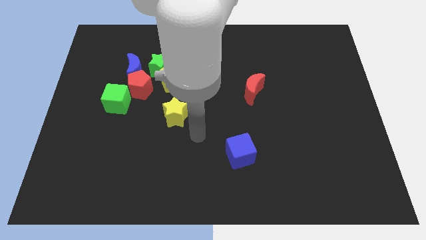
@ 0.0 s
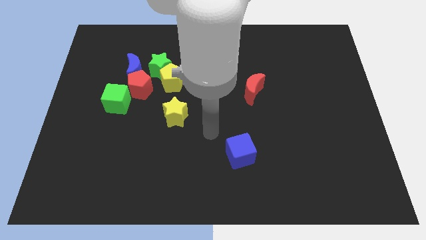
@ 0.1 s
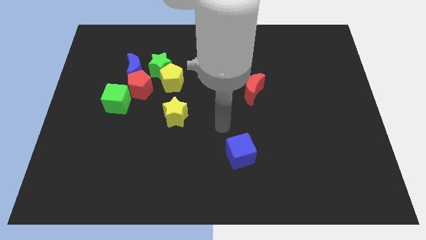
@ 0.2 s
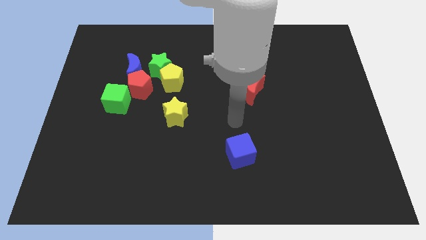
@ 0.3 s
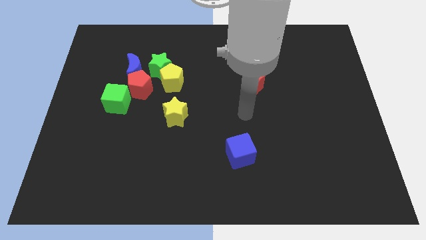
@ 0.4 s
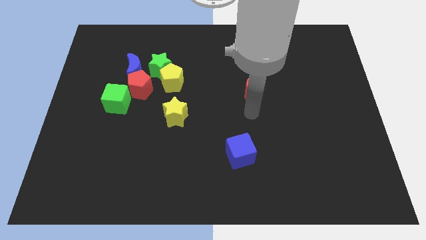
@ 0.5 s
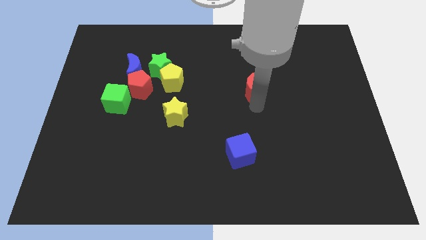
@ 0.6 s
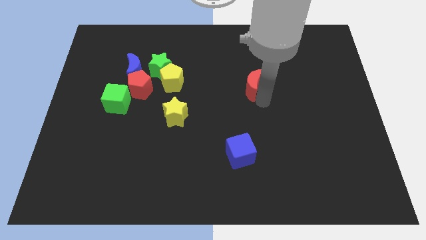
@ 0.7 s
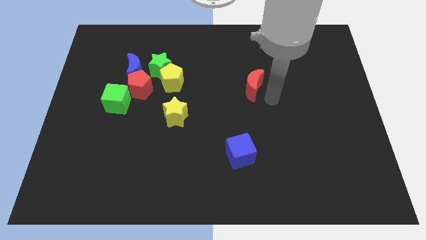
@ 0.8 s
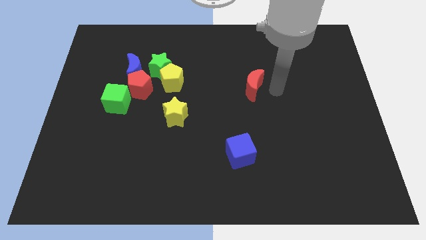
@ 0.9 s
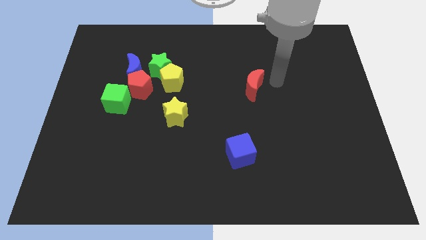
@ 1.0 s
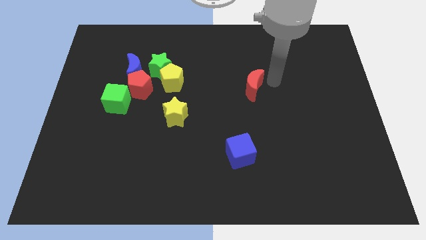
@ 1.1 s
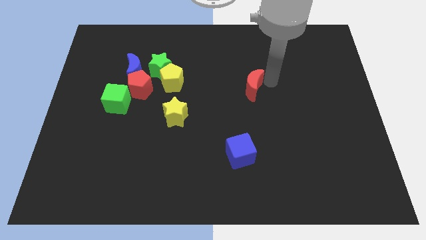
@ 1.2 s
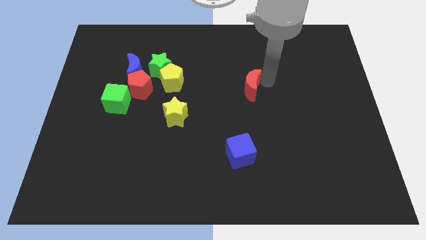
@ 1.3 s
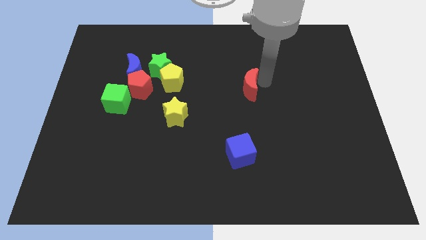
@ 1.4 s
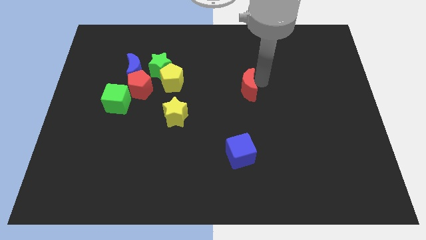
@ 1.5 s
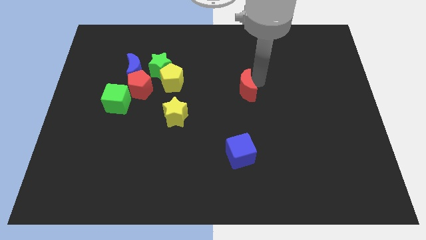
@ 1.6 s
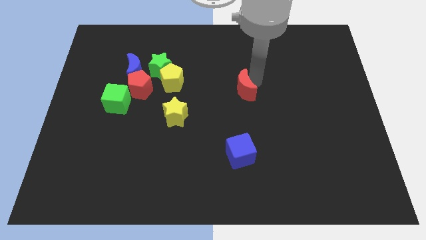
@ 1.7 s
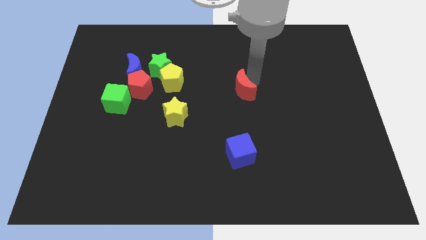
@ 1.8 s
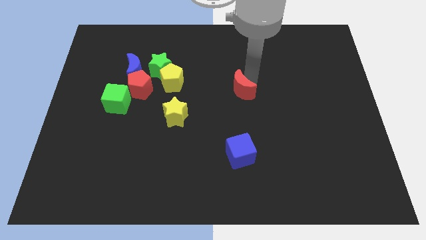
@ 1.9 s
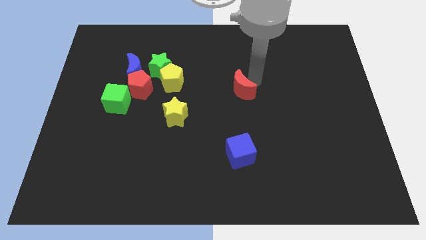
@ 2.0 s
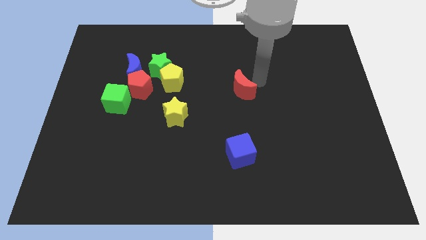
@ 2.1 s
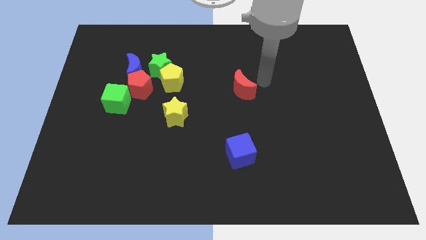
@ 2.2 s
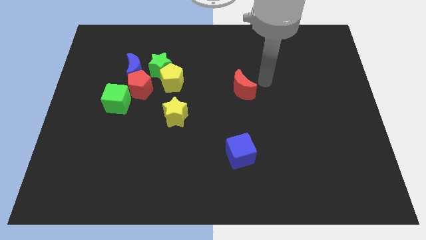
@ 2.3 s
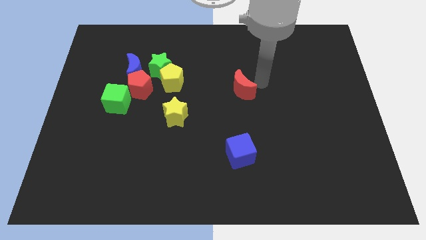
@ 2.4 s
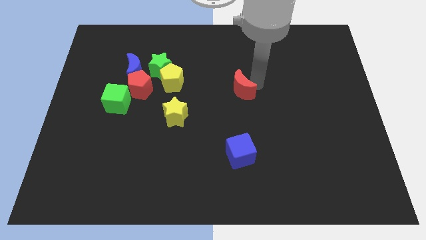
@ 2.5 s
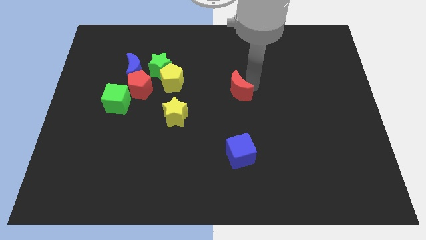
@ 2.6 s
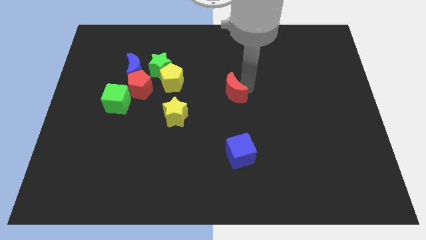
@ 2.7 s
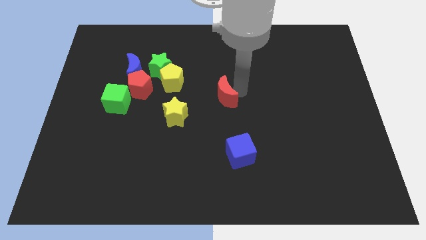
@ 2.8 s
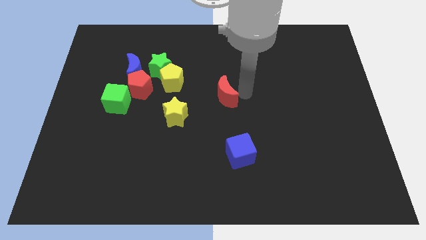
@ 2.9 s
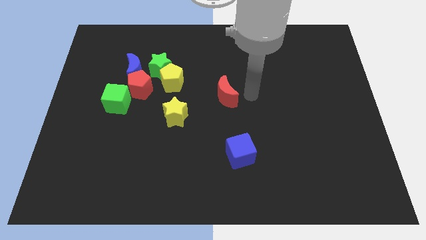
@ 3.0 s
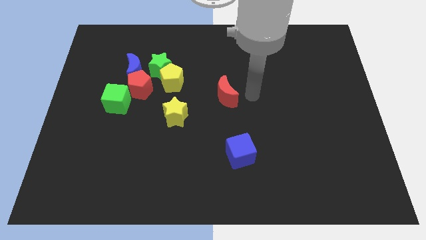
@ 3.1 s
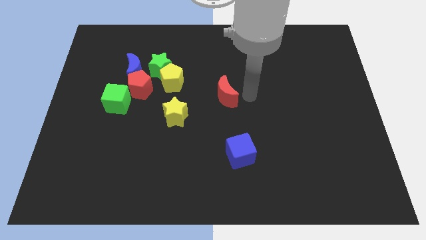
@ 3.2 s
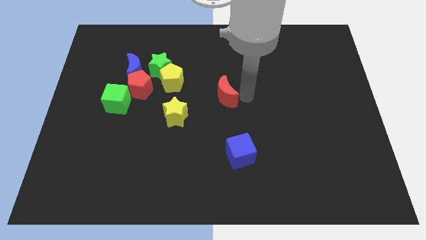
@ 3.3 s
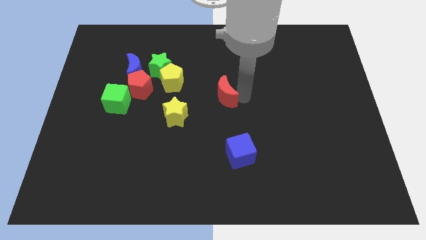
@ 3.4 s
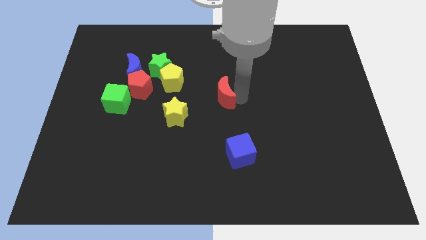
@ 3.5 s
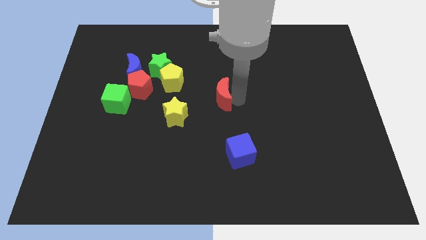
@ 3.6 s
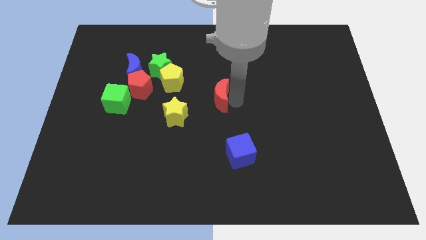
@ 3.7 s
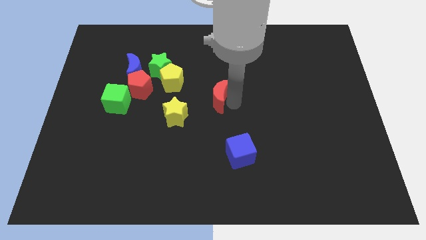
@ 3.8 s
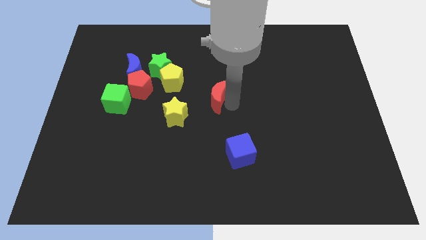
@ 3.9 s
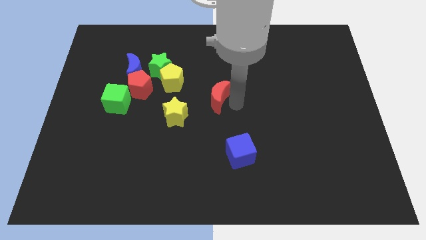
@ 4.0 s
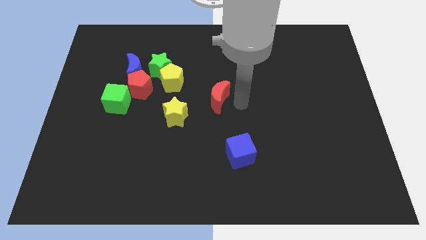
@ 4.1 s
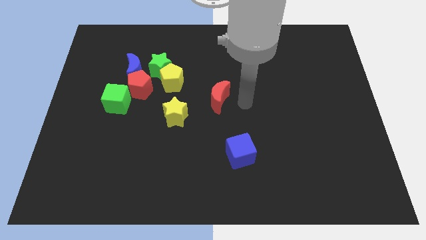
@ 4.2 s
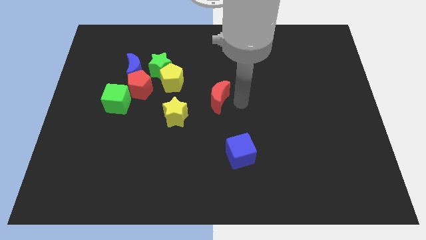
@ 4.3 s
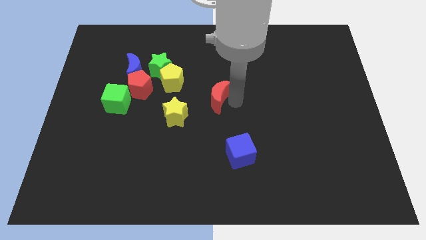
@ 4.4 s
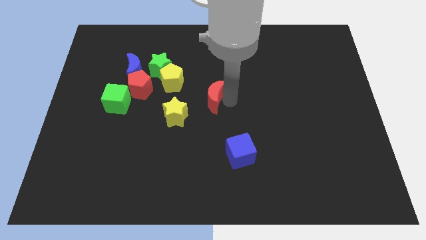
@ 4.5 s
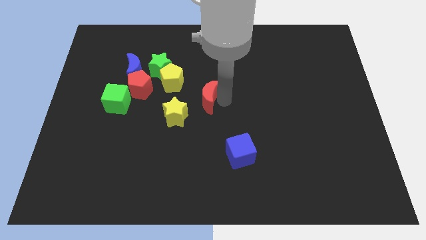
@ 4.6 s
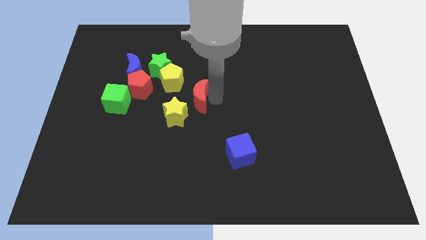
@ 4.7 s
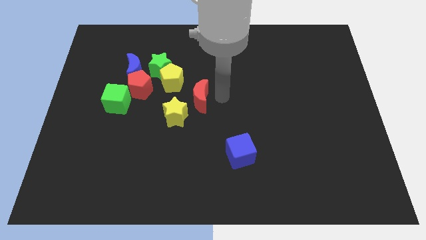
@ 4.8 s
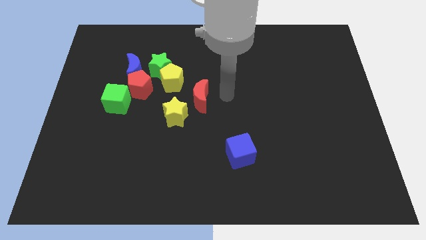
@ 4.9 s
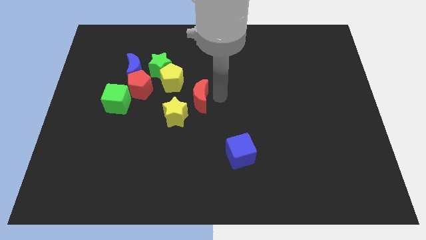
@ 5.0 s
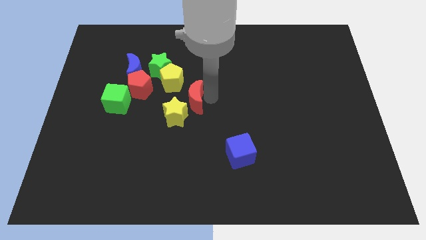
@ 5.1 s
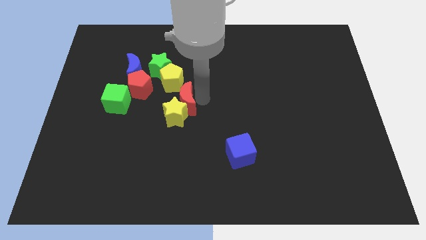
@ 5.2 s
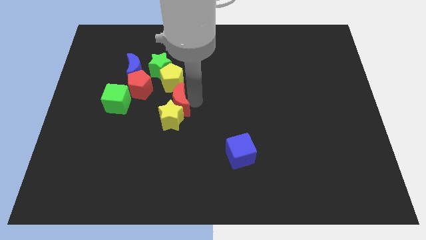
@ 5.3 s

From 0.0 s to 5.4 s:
put the red moon to the bottom right side of the red pentagon

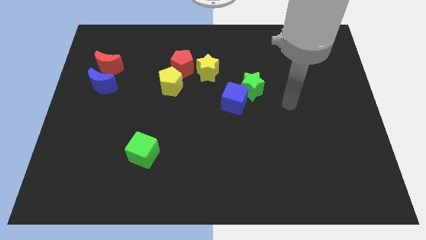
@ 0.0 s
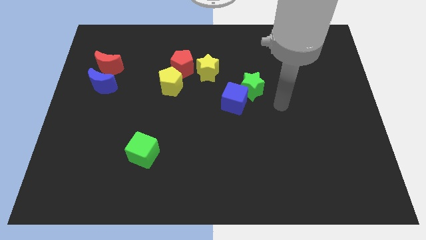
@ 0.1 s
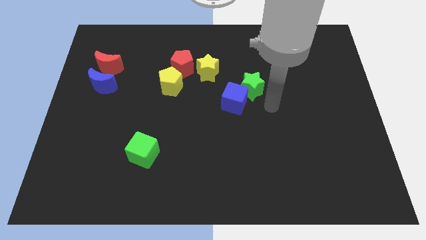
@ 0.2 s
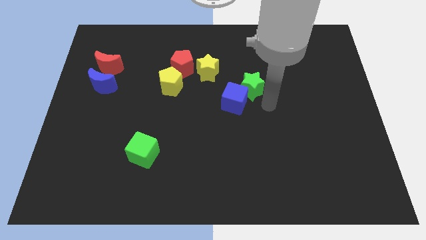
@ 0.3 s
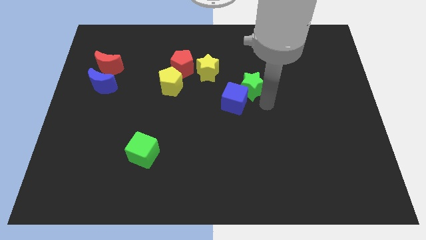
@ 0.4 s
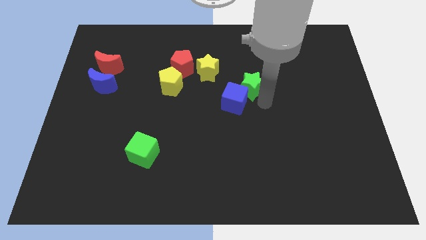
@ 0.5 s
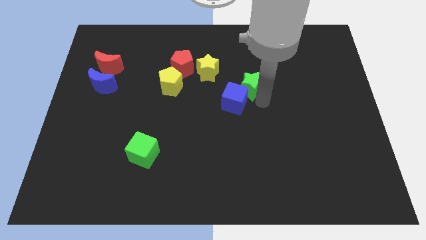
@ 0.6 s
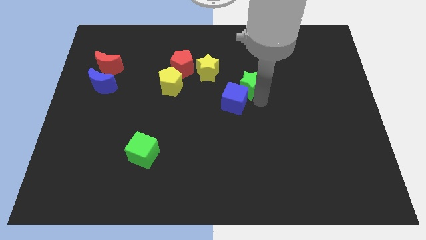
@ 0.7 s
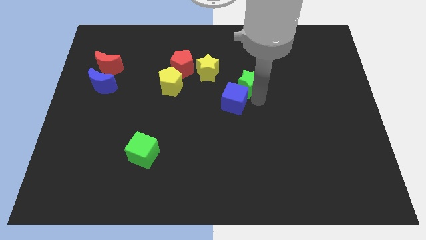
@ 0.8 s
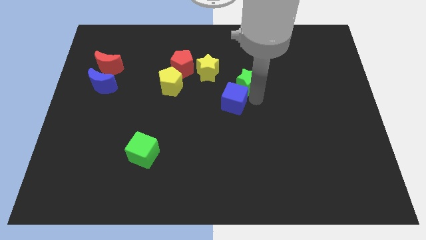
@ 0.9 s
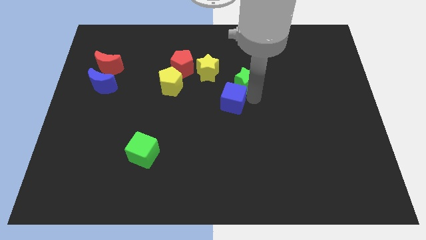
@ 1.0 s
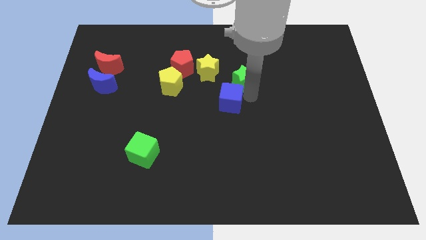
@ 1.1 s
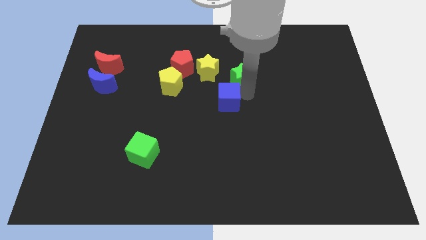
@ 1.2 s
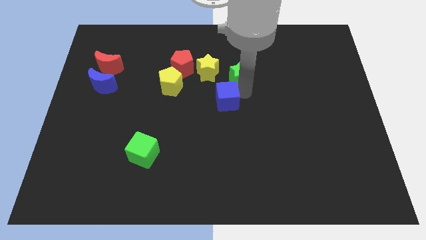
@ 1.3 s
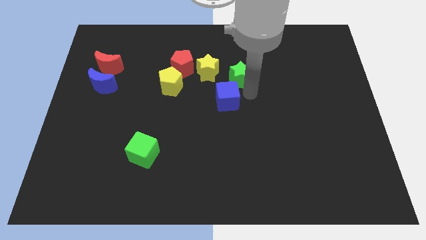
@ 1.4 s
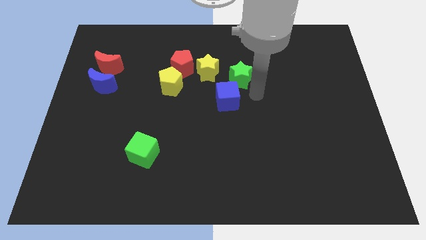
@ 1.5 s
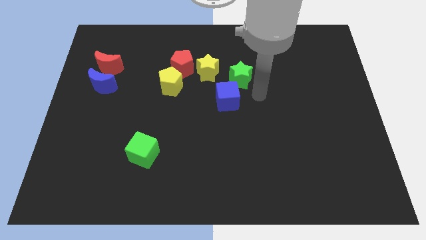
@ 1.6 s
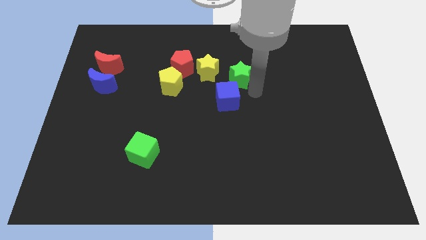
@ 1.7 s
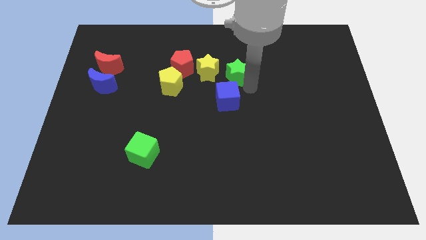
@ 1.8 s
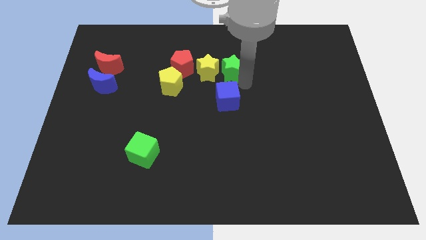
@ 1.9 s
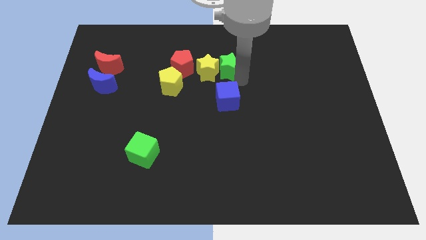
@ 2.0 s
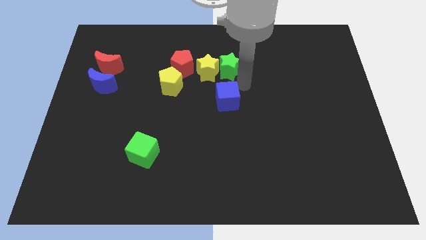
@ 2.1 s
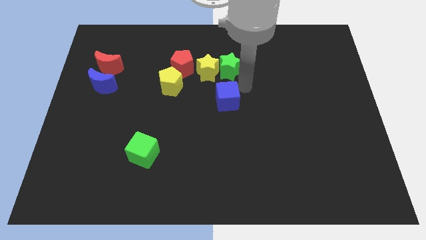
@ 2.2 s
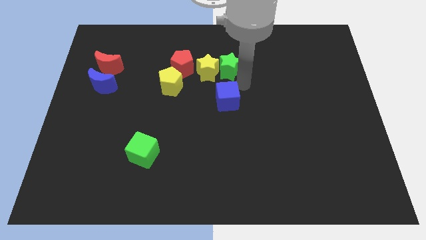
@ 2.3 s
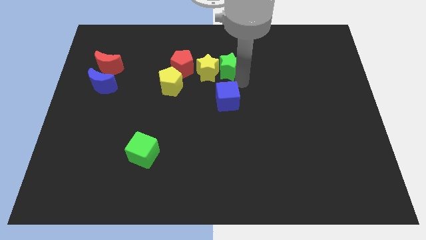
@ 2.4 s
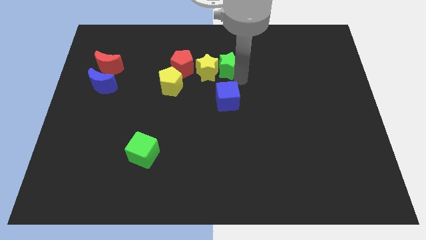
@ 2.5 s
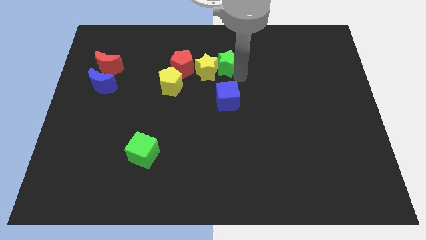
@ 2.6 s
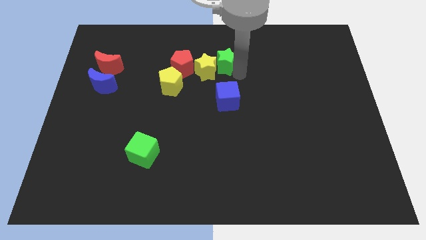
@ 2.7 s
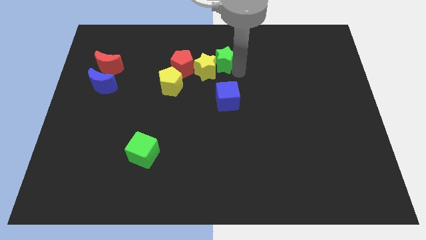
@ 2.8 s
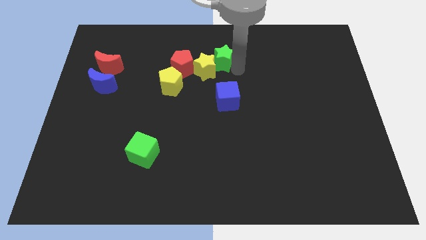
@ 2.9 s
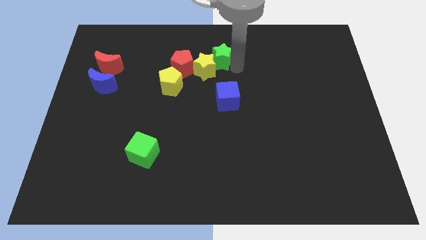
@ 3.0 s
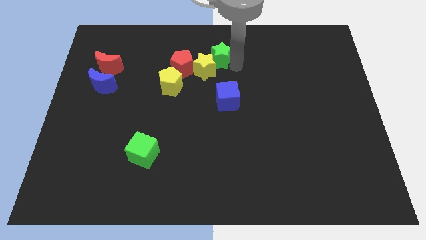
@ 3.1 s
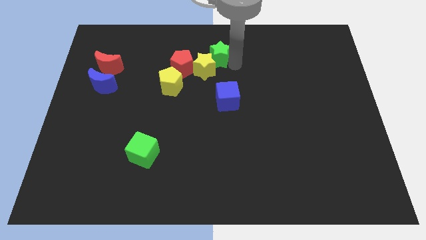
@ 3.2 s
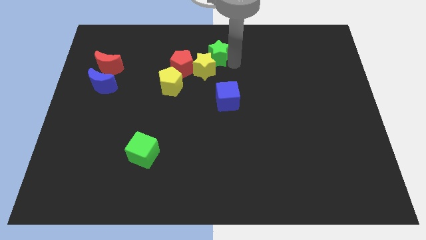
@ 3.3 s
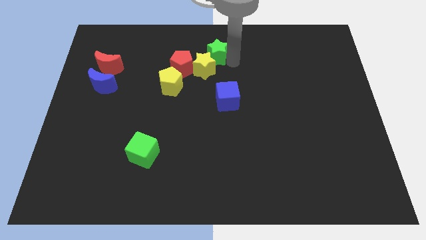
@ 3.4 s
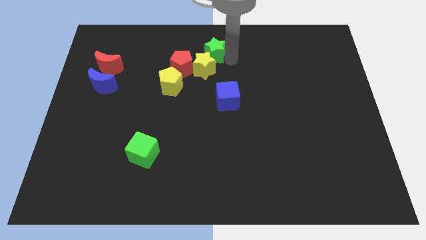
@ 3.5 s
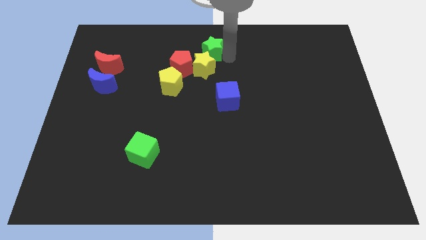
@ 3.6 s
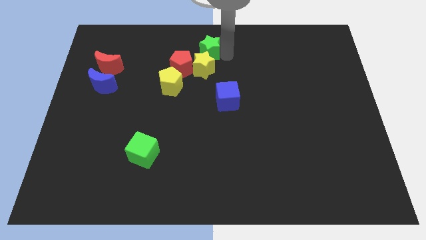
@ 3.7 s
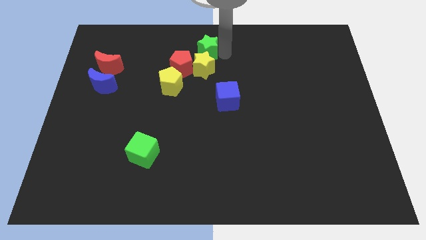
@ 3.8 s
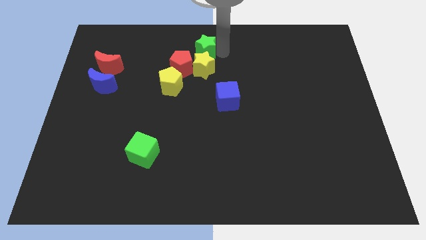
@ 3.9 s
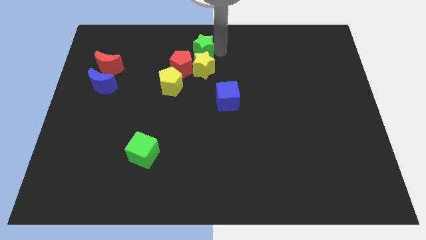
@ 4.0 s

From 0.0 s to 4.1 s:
slide the green star to the top left of the yellow star
